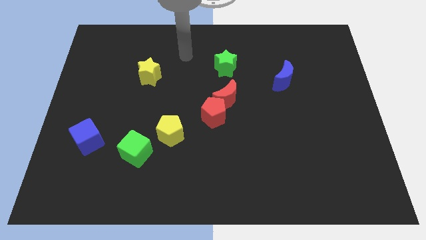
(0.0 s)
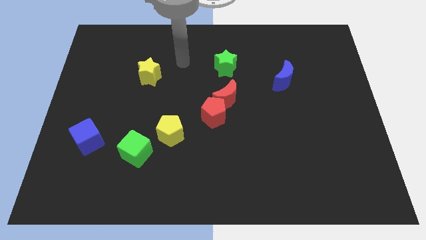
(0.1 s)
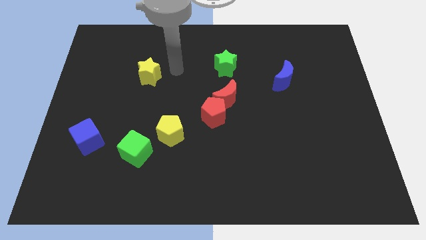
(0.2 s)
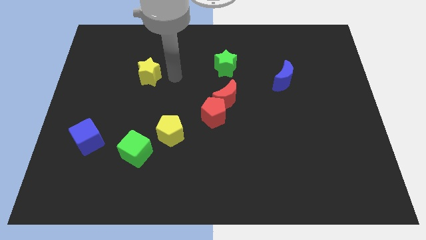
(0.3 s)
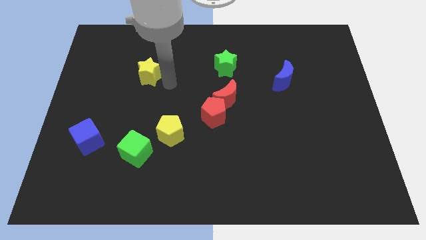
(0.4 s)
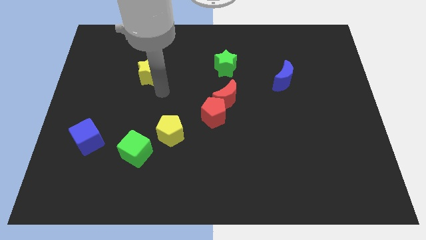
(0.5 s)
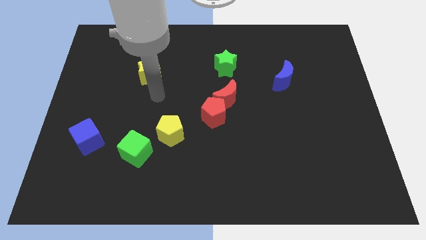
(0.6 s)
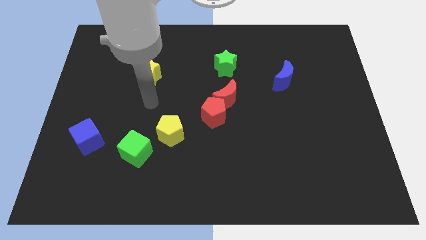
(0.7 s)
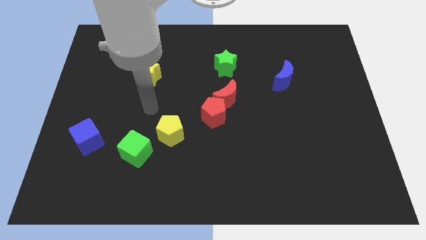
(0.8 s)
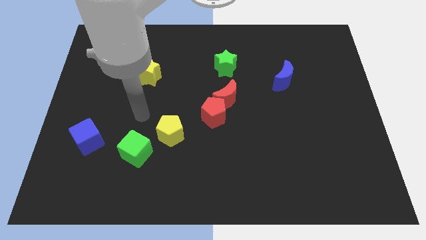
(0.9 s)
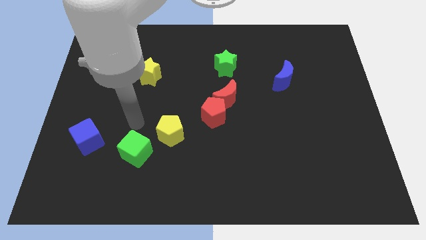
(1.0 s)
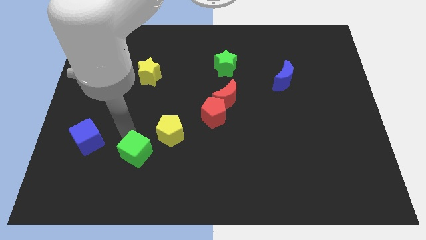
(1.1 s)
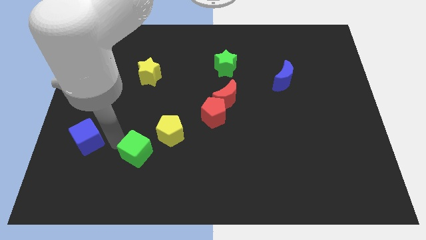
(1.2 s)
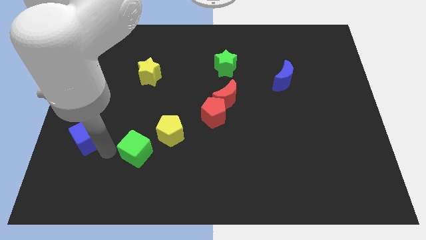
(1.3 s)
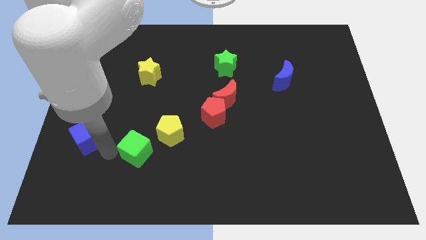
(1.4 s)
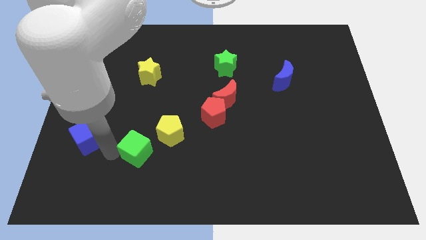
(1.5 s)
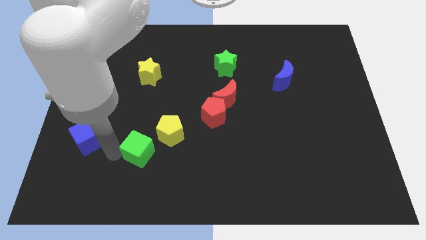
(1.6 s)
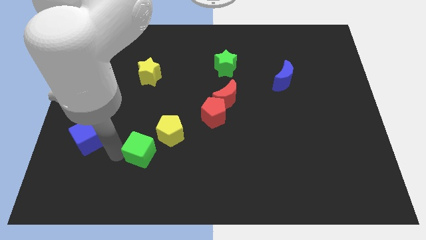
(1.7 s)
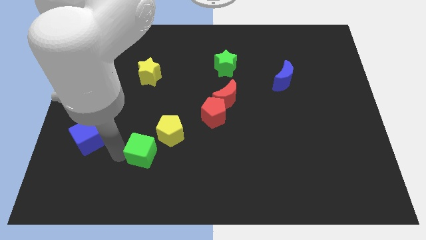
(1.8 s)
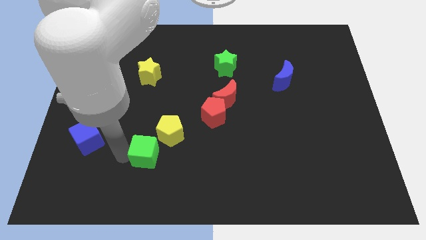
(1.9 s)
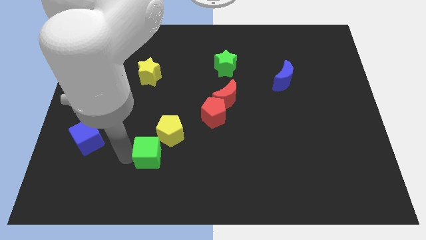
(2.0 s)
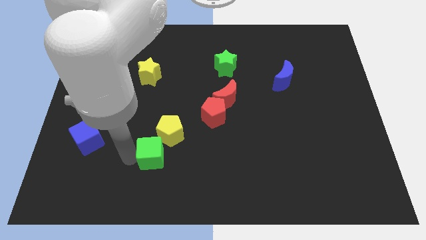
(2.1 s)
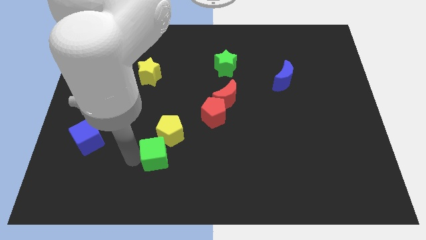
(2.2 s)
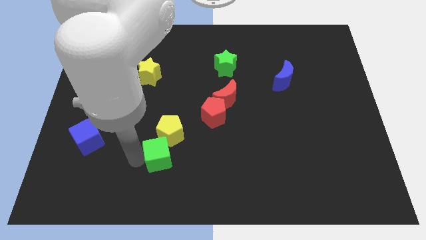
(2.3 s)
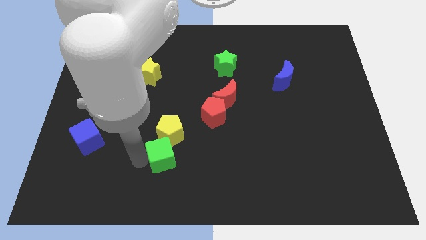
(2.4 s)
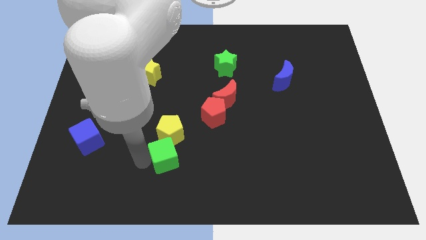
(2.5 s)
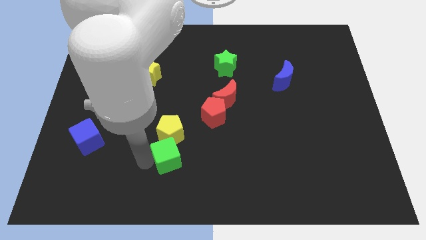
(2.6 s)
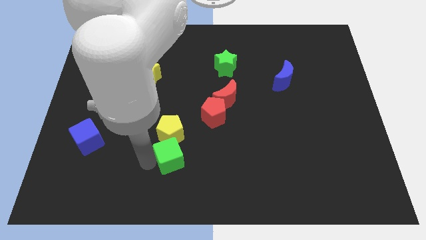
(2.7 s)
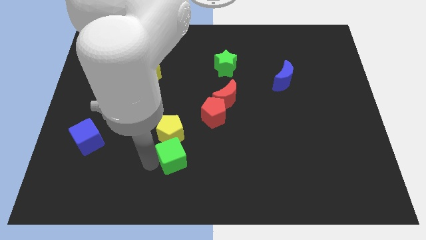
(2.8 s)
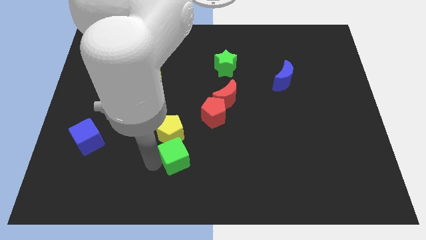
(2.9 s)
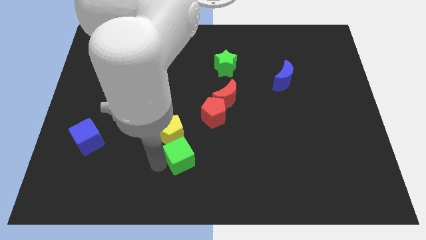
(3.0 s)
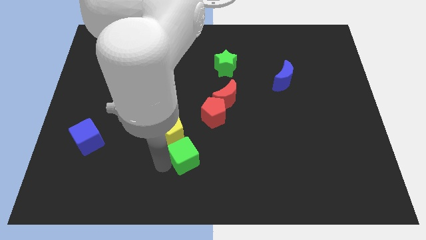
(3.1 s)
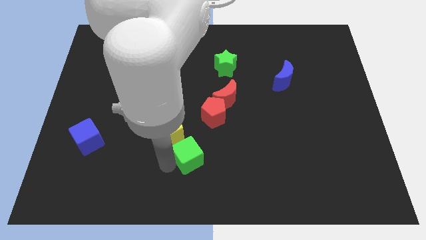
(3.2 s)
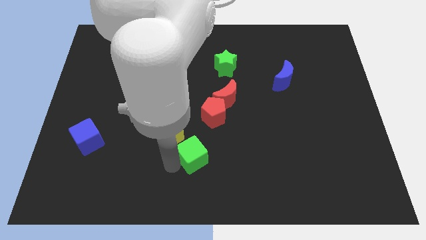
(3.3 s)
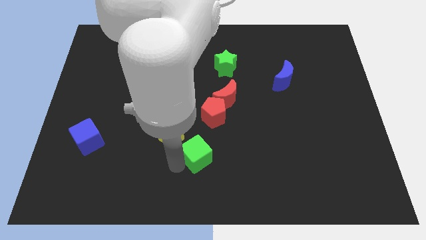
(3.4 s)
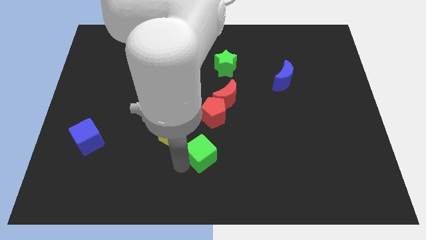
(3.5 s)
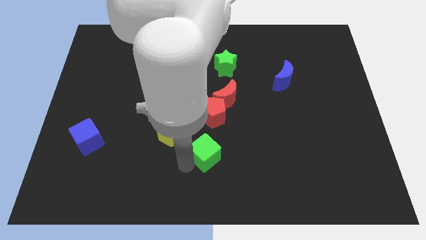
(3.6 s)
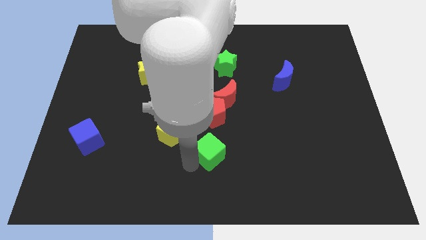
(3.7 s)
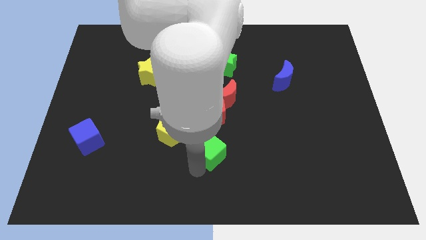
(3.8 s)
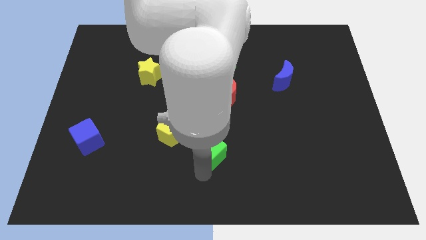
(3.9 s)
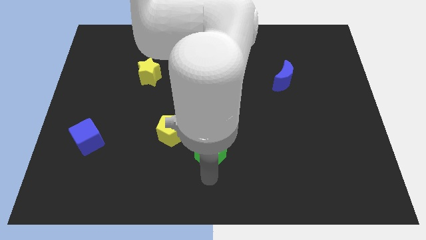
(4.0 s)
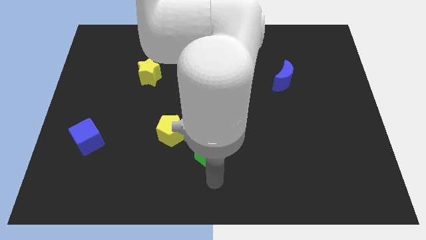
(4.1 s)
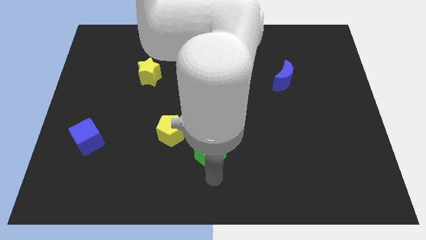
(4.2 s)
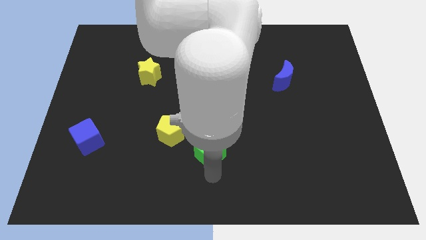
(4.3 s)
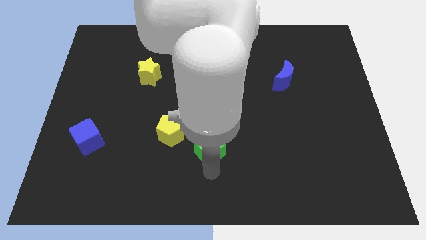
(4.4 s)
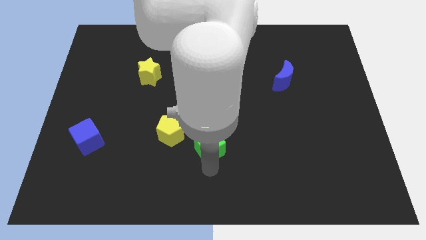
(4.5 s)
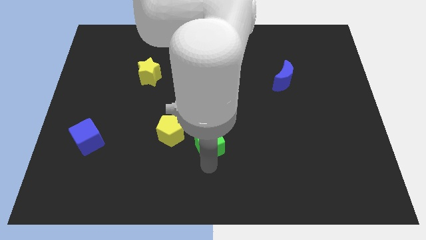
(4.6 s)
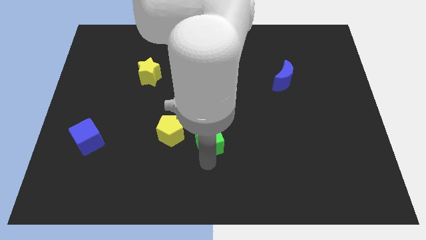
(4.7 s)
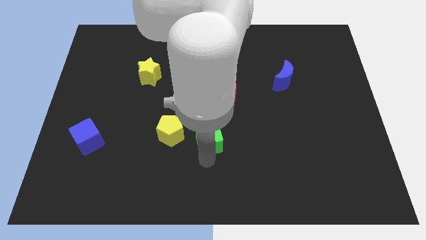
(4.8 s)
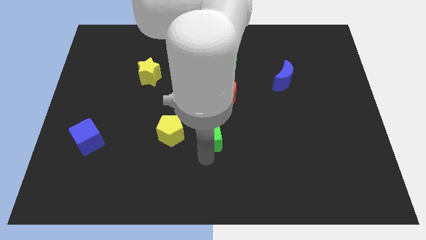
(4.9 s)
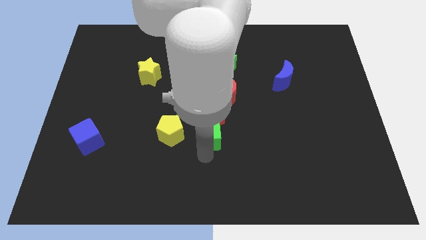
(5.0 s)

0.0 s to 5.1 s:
move the green cube next to the red pentagon

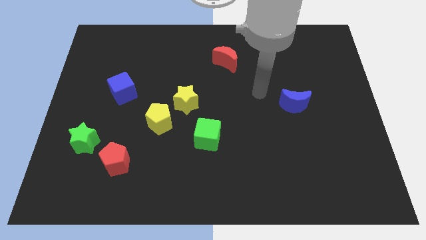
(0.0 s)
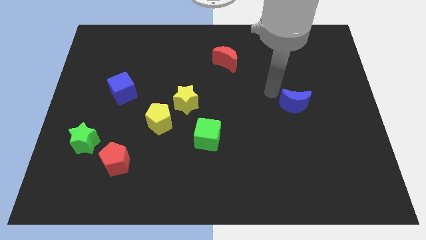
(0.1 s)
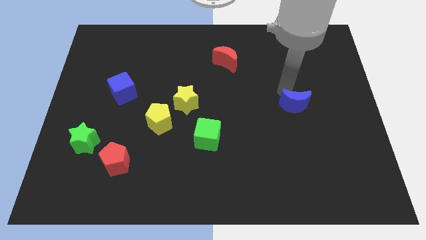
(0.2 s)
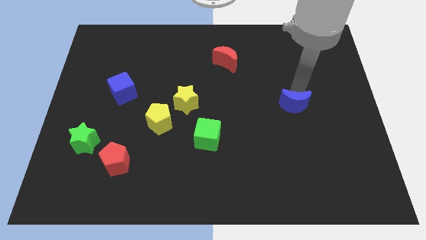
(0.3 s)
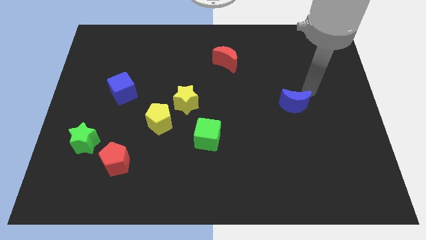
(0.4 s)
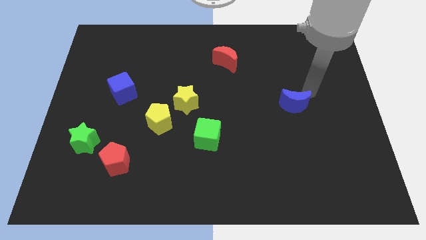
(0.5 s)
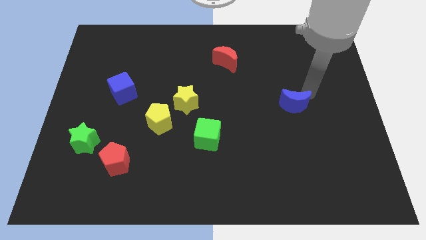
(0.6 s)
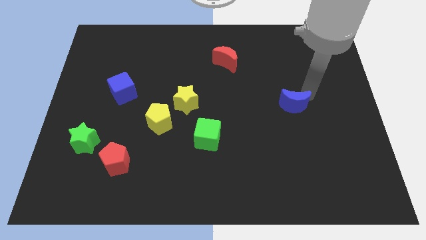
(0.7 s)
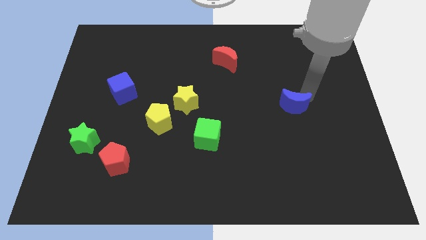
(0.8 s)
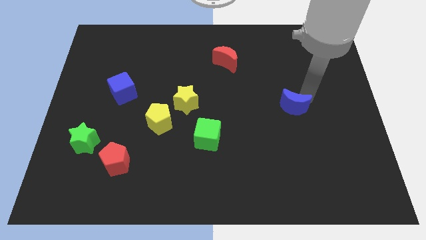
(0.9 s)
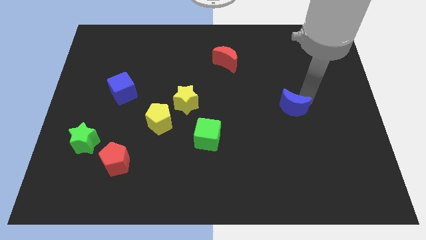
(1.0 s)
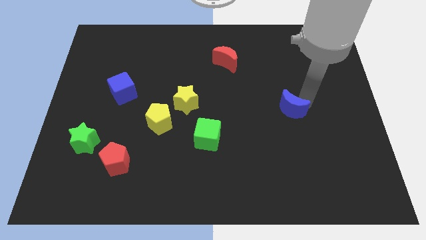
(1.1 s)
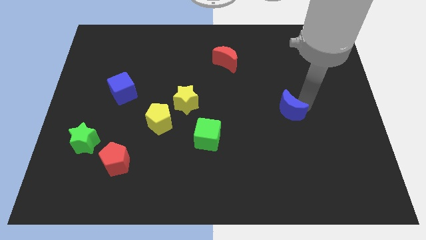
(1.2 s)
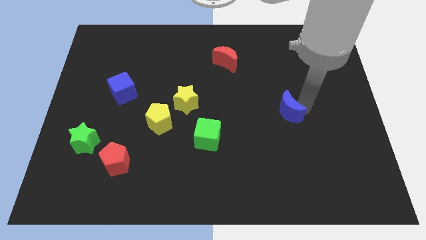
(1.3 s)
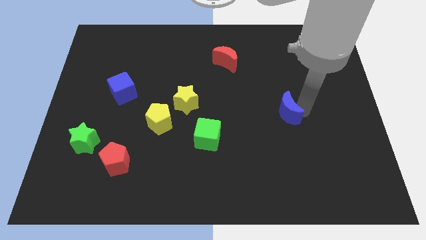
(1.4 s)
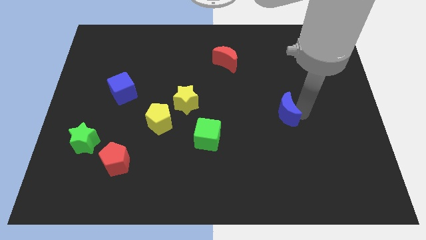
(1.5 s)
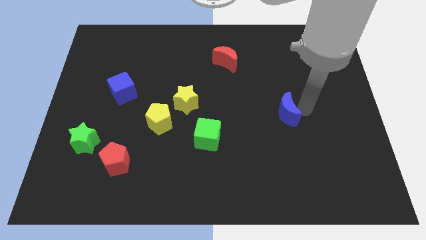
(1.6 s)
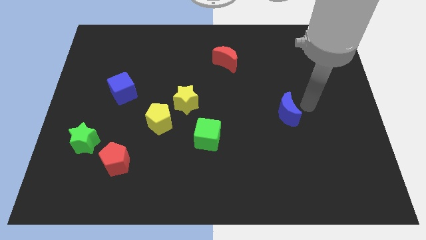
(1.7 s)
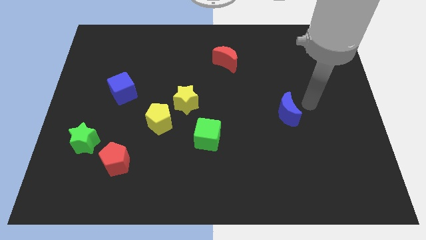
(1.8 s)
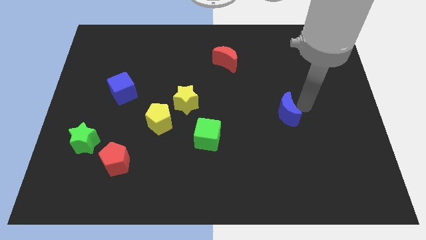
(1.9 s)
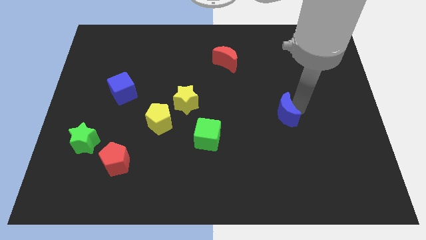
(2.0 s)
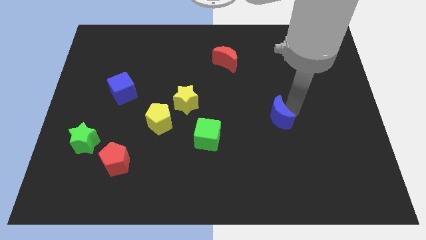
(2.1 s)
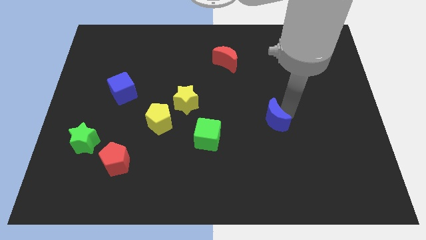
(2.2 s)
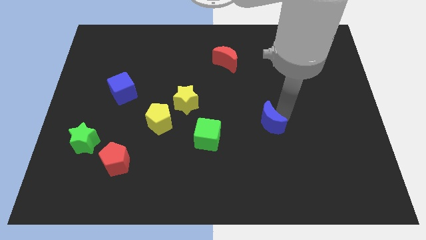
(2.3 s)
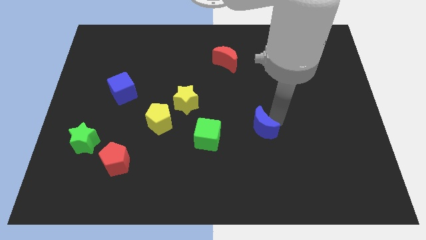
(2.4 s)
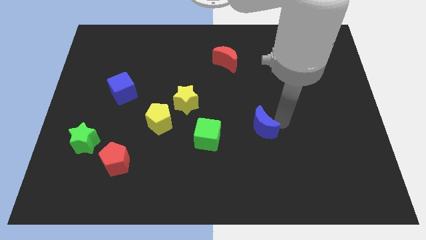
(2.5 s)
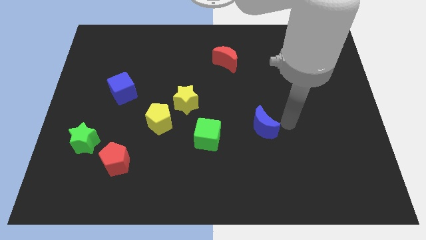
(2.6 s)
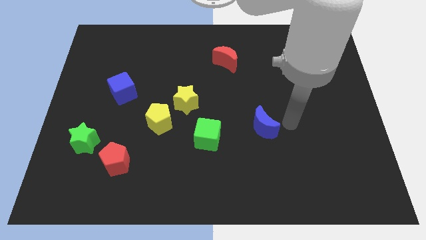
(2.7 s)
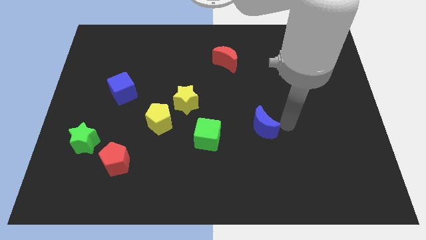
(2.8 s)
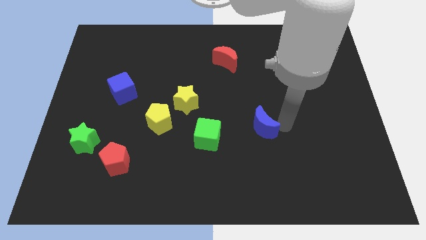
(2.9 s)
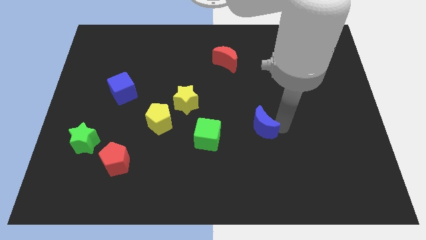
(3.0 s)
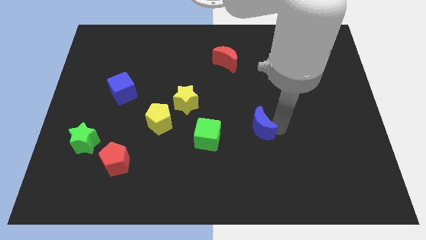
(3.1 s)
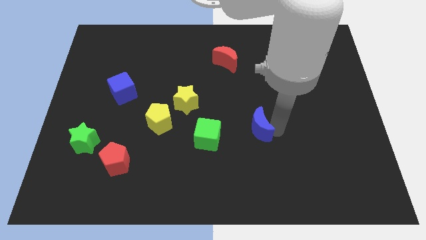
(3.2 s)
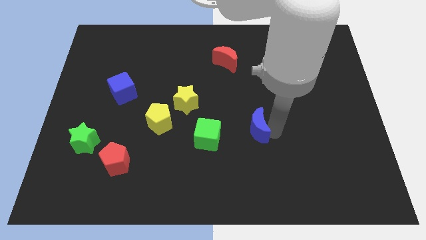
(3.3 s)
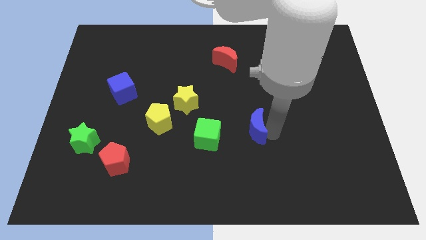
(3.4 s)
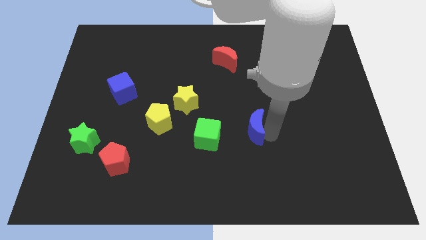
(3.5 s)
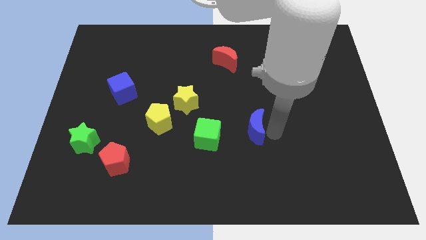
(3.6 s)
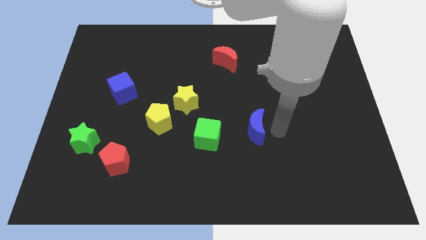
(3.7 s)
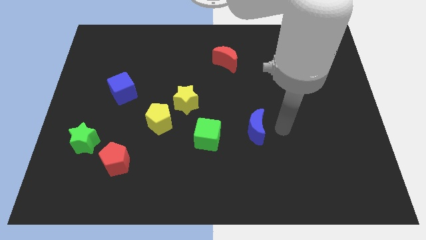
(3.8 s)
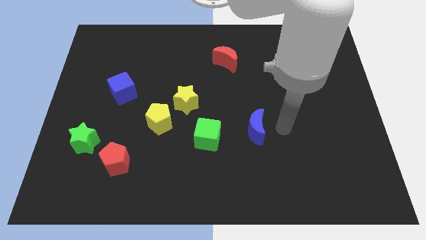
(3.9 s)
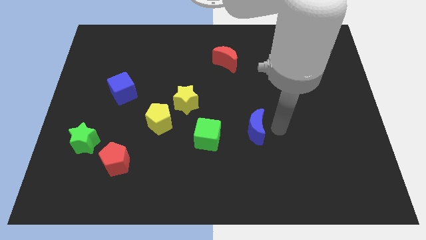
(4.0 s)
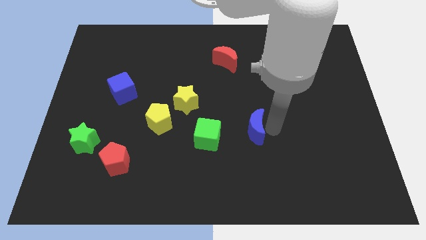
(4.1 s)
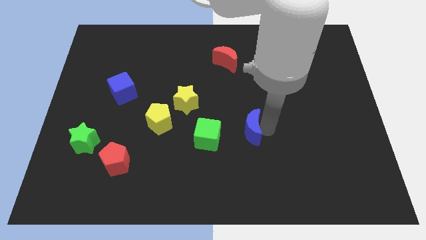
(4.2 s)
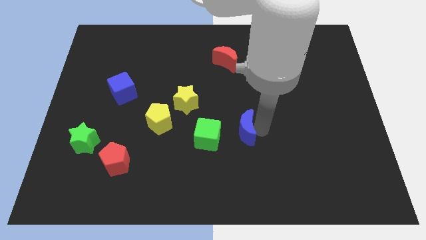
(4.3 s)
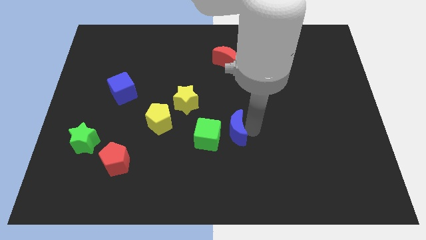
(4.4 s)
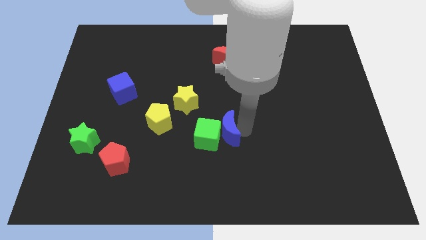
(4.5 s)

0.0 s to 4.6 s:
push the blue moon to the green cube
